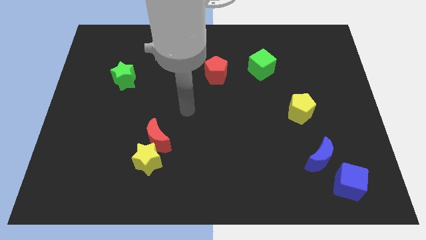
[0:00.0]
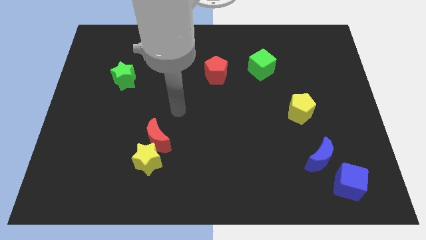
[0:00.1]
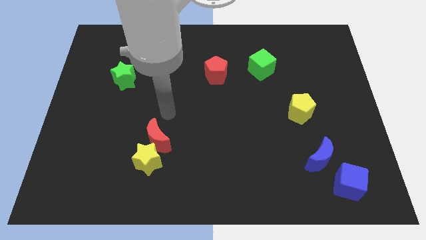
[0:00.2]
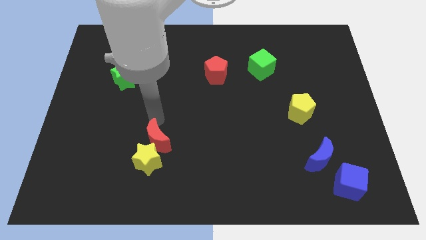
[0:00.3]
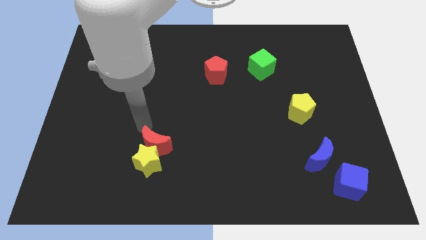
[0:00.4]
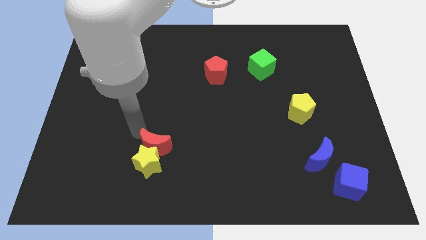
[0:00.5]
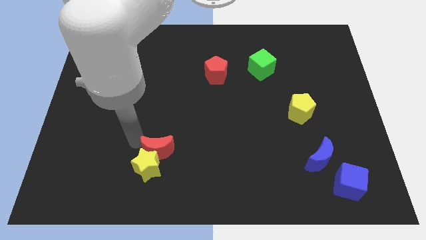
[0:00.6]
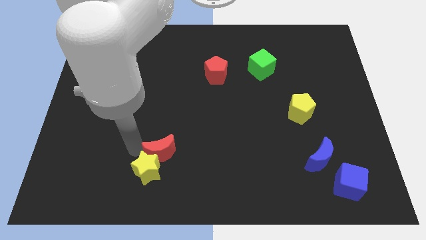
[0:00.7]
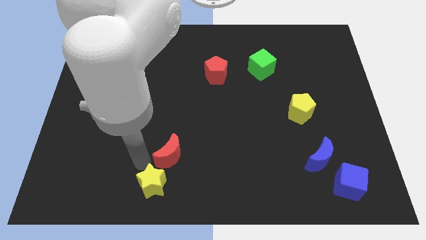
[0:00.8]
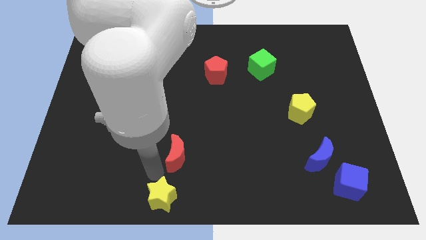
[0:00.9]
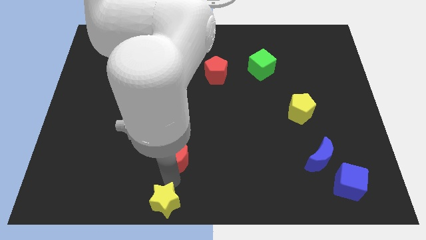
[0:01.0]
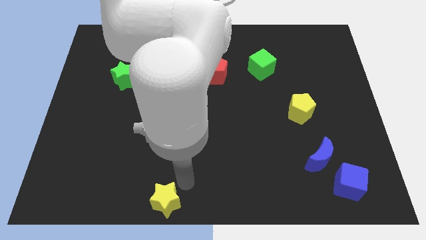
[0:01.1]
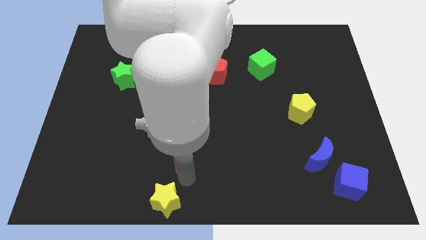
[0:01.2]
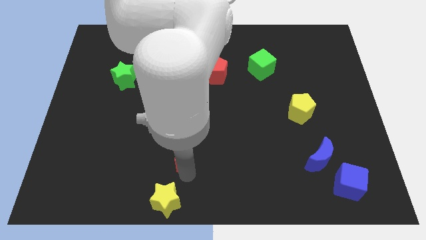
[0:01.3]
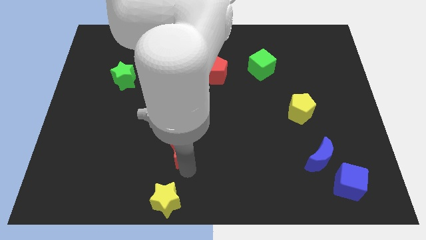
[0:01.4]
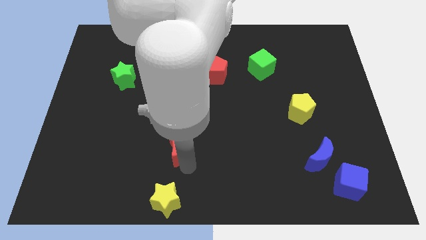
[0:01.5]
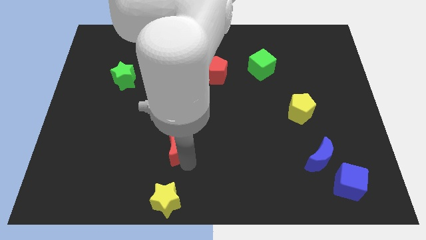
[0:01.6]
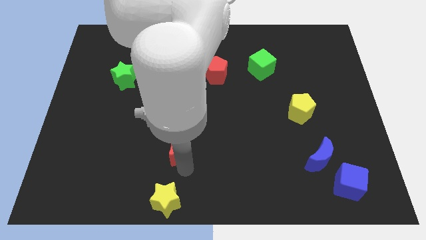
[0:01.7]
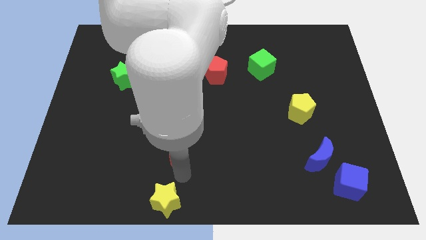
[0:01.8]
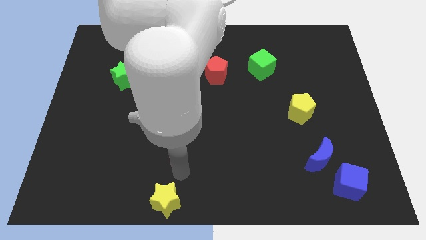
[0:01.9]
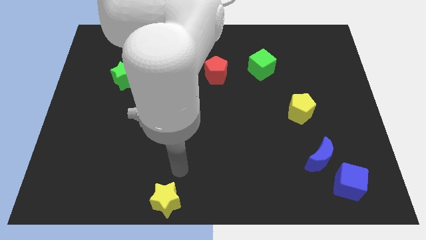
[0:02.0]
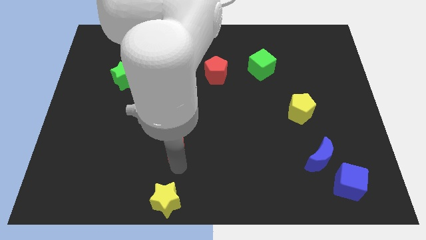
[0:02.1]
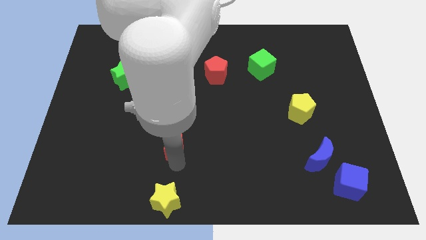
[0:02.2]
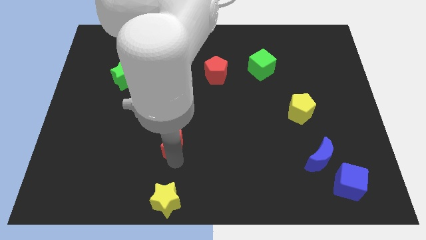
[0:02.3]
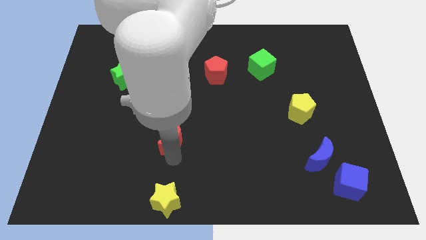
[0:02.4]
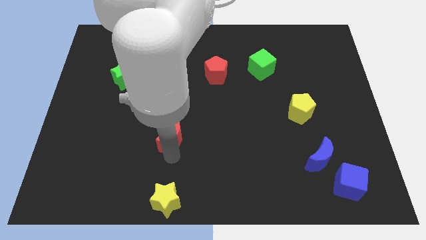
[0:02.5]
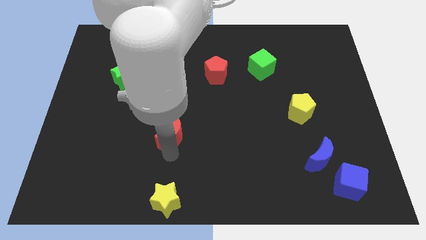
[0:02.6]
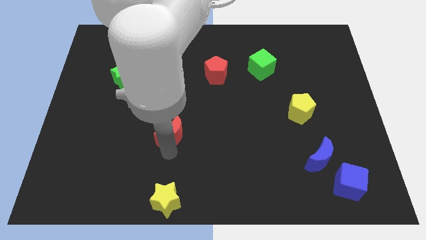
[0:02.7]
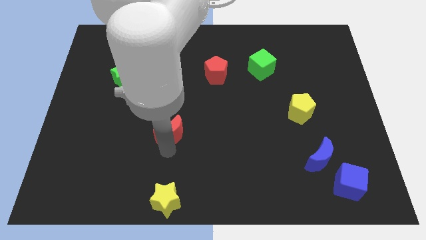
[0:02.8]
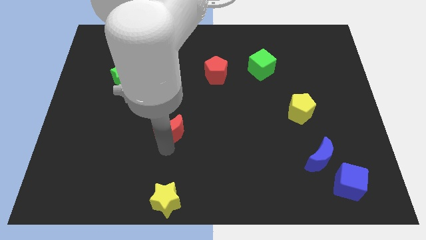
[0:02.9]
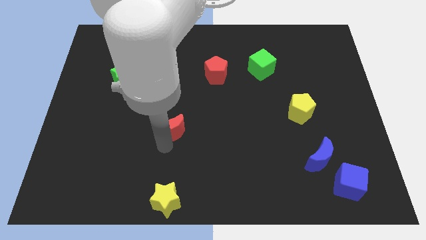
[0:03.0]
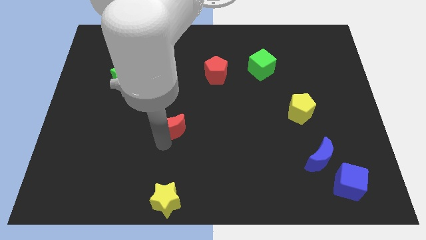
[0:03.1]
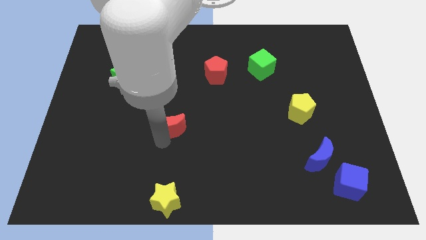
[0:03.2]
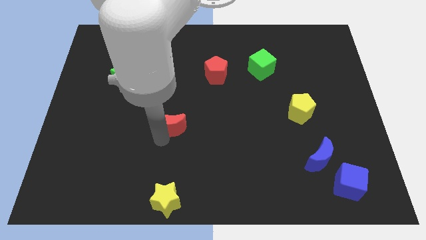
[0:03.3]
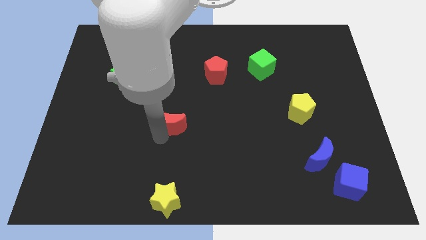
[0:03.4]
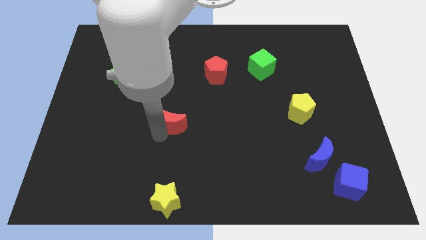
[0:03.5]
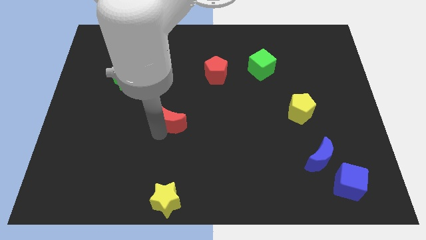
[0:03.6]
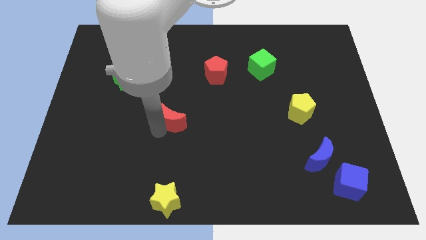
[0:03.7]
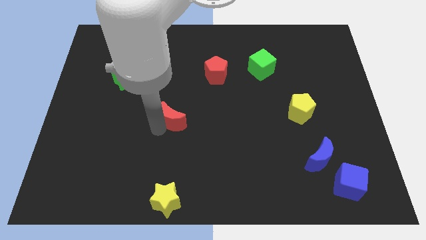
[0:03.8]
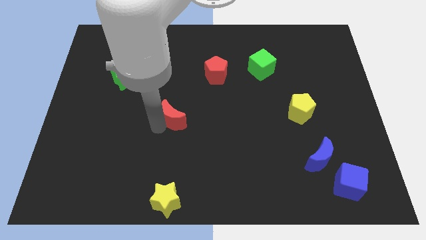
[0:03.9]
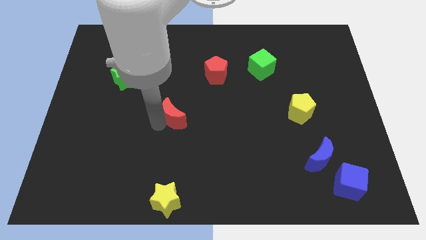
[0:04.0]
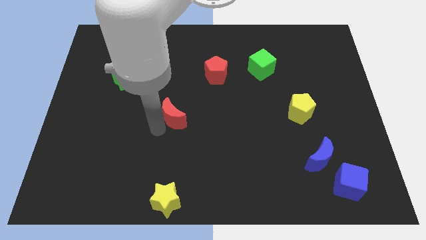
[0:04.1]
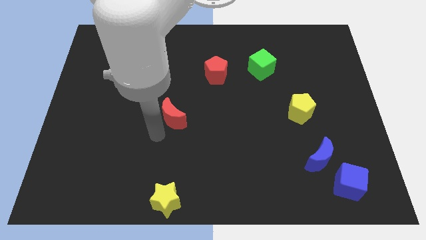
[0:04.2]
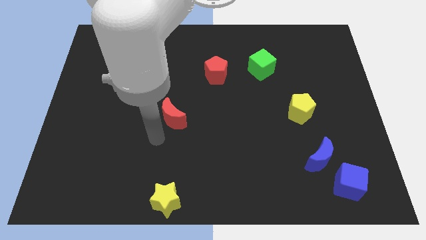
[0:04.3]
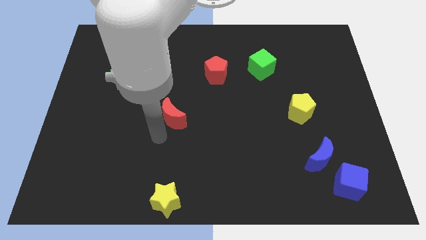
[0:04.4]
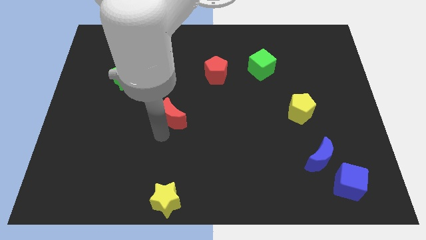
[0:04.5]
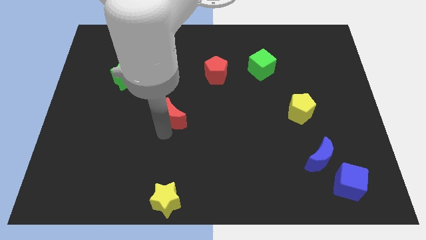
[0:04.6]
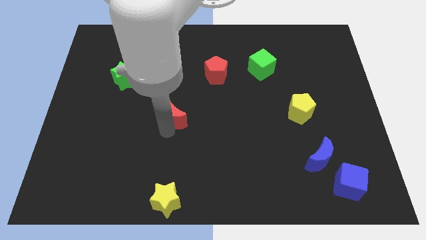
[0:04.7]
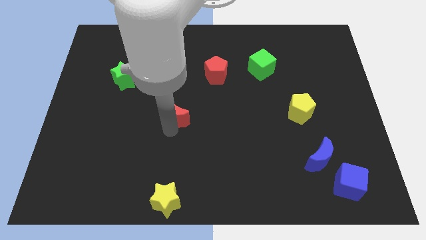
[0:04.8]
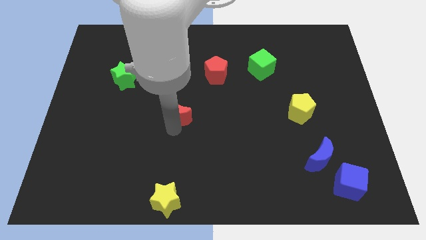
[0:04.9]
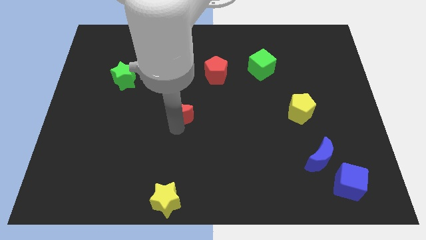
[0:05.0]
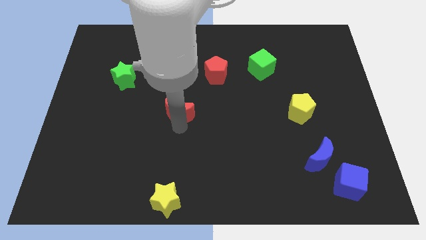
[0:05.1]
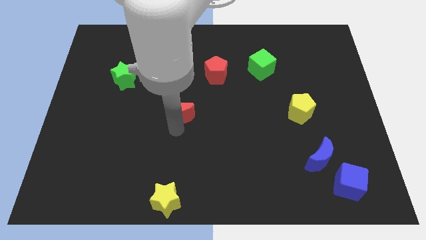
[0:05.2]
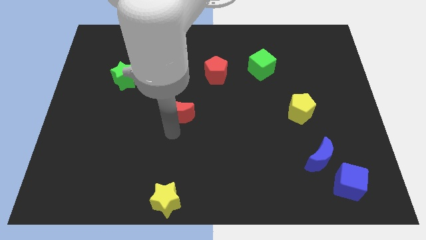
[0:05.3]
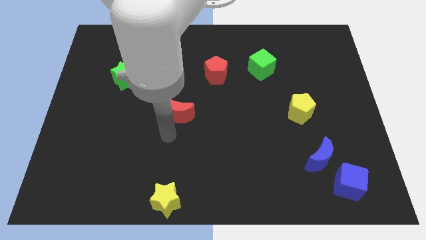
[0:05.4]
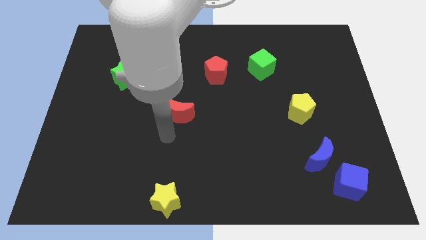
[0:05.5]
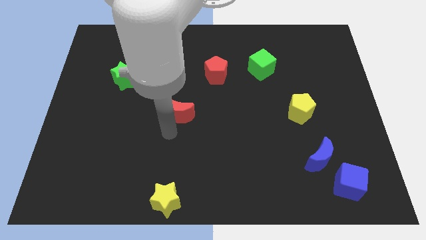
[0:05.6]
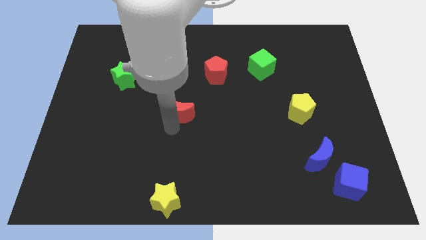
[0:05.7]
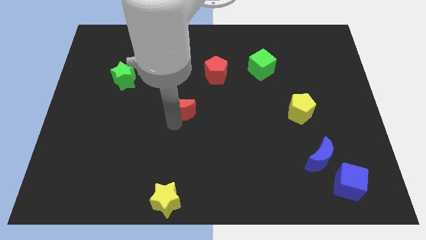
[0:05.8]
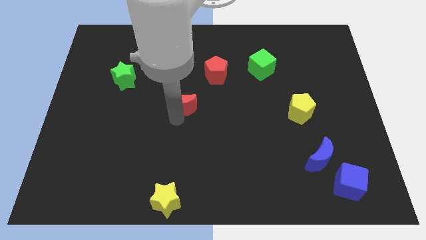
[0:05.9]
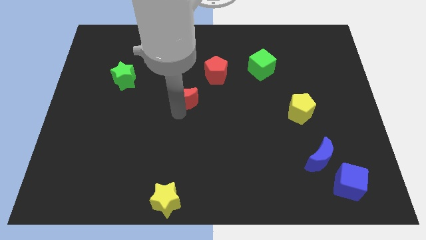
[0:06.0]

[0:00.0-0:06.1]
slide the red moon to the bottom left side of the red pentagon
